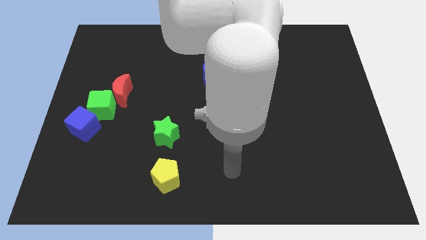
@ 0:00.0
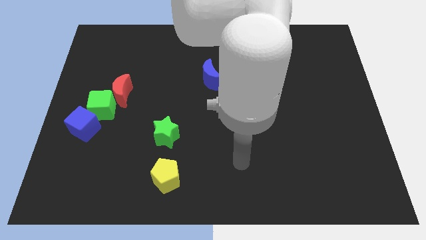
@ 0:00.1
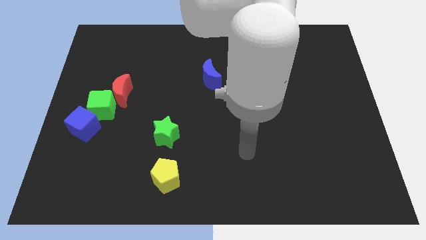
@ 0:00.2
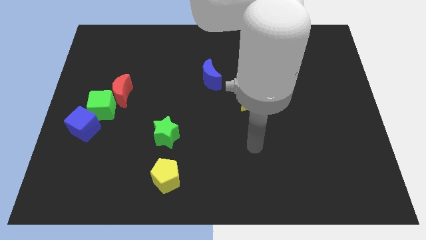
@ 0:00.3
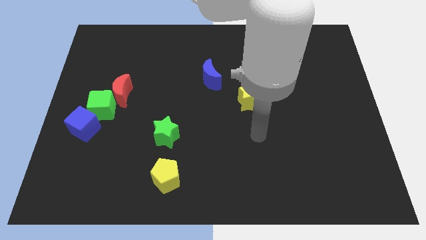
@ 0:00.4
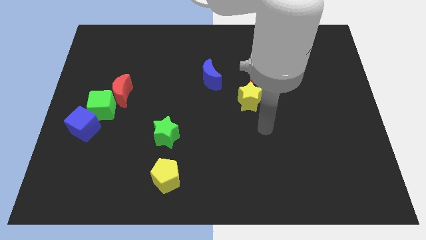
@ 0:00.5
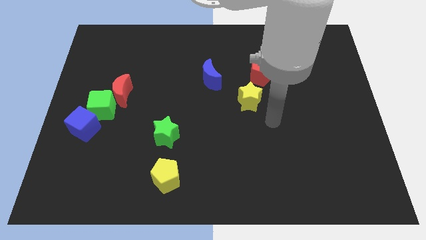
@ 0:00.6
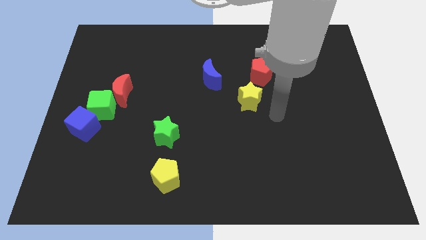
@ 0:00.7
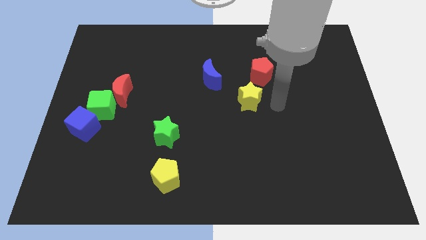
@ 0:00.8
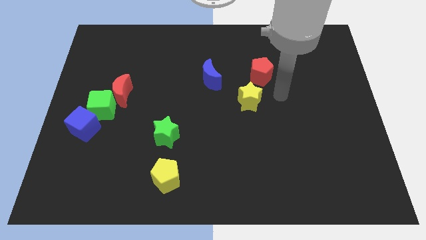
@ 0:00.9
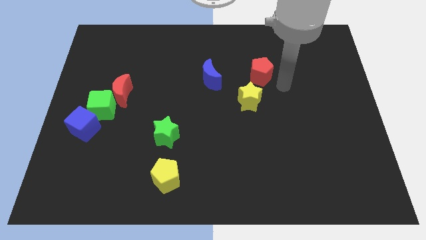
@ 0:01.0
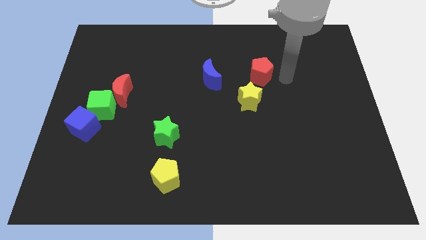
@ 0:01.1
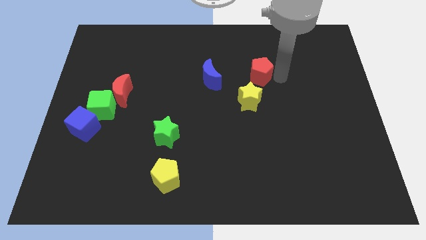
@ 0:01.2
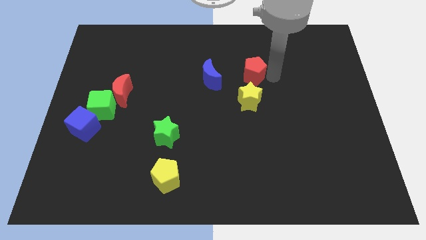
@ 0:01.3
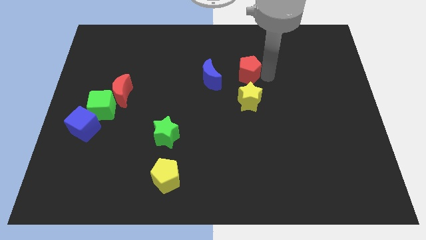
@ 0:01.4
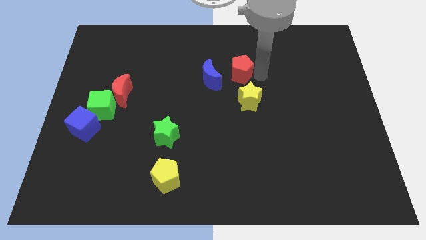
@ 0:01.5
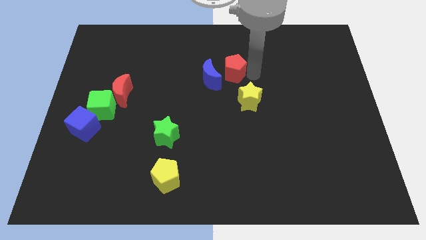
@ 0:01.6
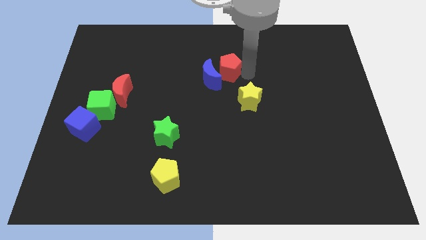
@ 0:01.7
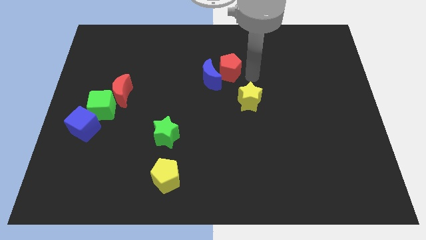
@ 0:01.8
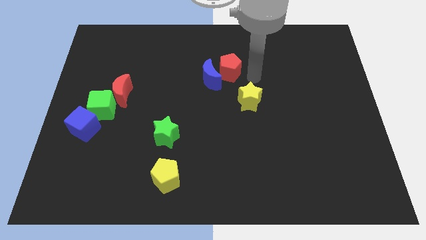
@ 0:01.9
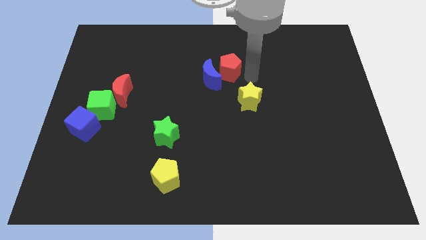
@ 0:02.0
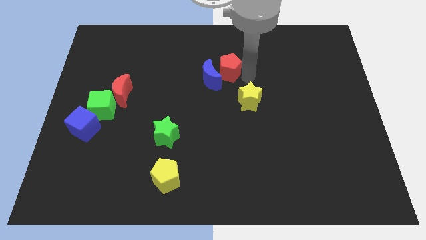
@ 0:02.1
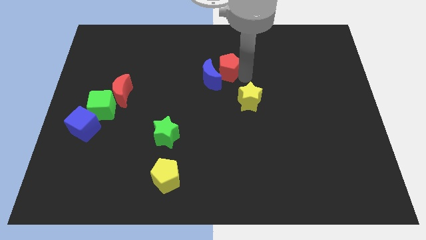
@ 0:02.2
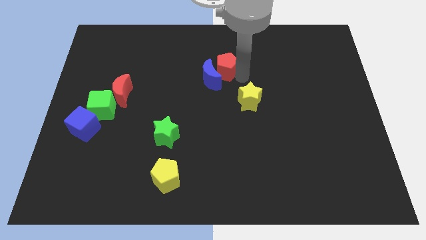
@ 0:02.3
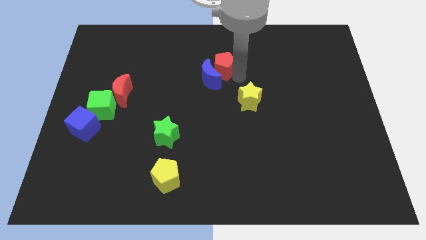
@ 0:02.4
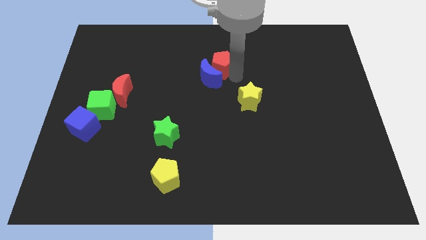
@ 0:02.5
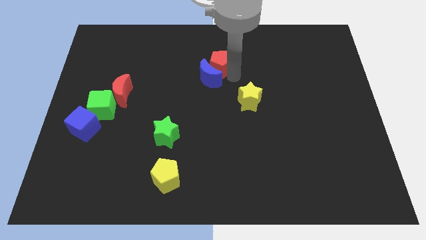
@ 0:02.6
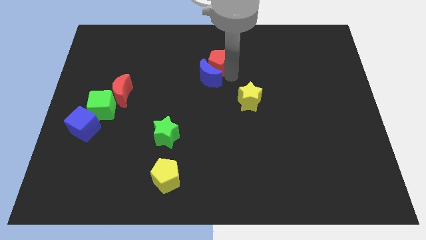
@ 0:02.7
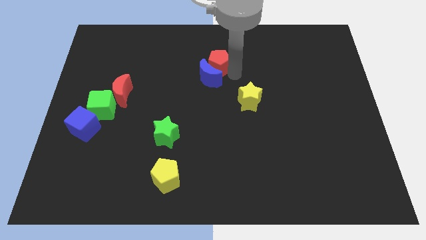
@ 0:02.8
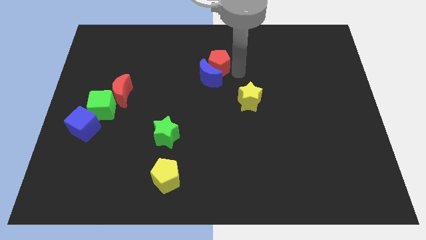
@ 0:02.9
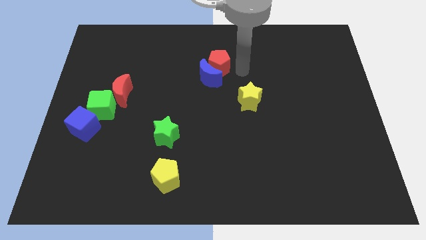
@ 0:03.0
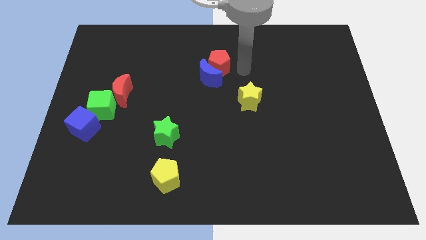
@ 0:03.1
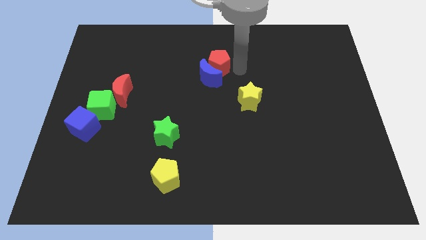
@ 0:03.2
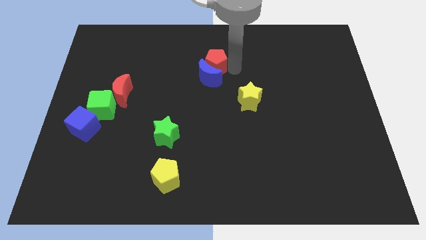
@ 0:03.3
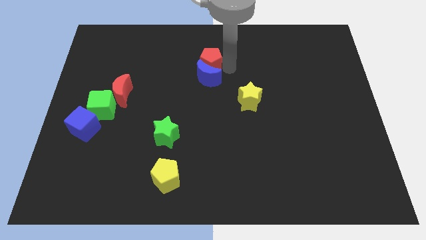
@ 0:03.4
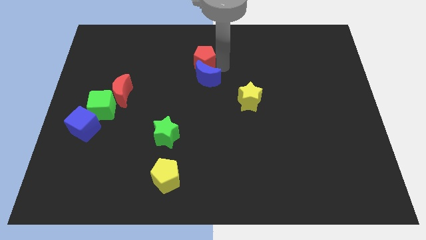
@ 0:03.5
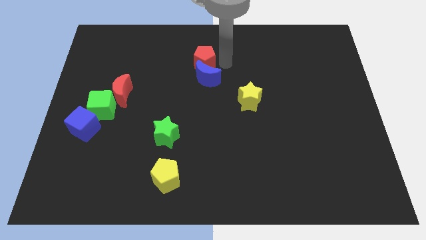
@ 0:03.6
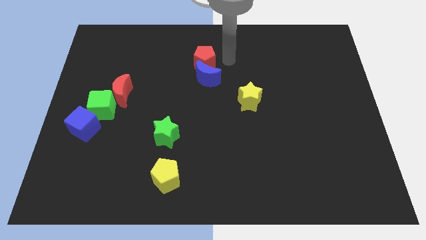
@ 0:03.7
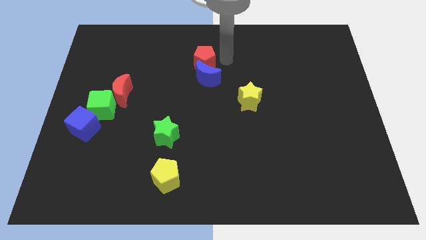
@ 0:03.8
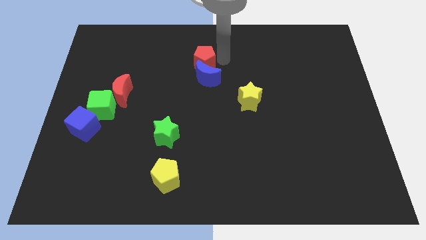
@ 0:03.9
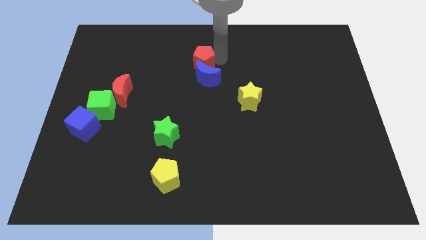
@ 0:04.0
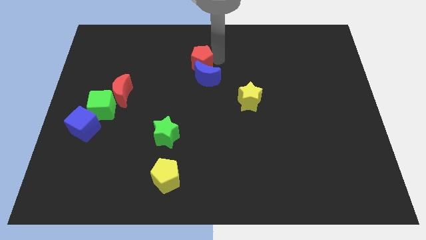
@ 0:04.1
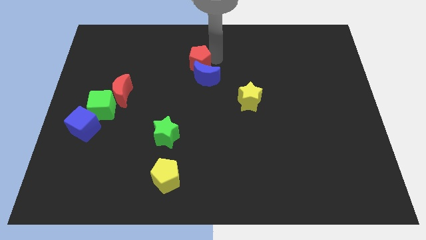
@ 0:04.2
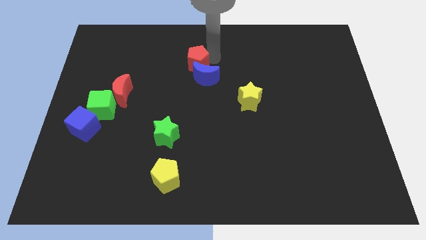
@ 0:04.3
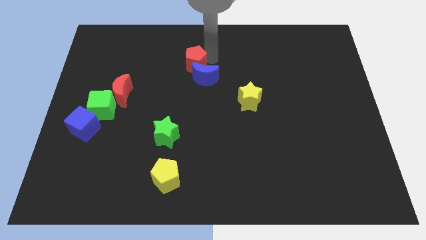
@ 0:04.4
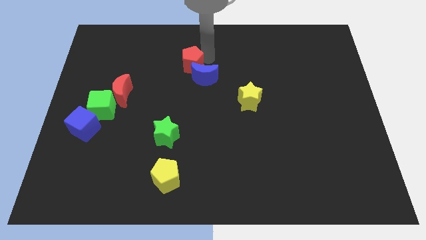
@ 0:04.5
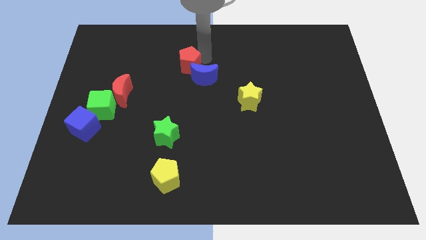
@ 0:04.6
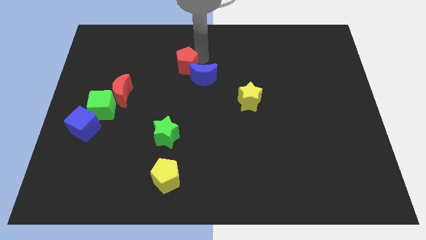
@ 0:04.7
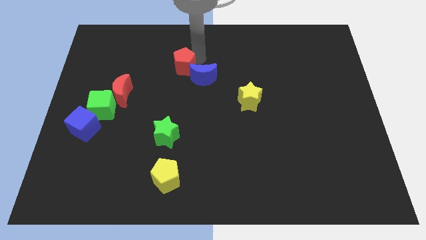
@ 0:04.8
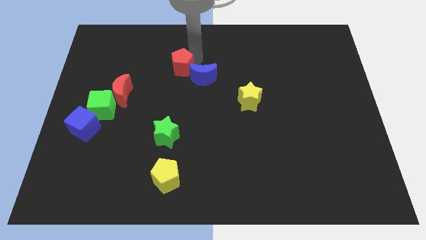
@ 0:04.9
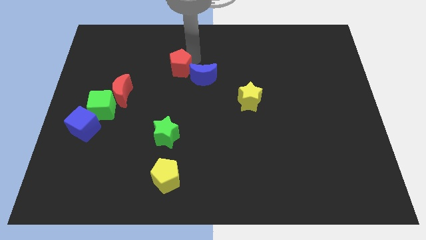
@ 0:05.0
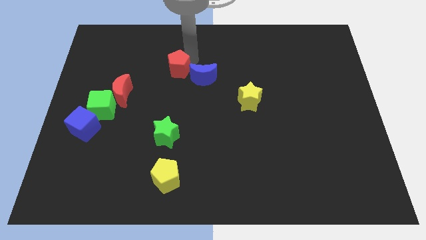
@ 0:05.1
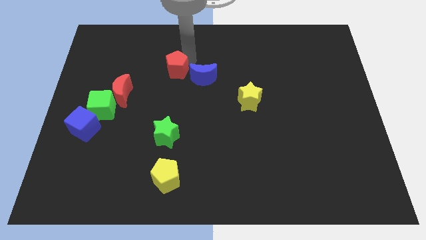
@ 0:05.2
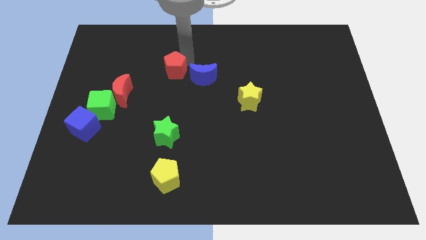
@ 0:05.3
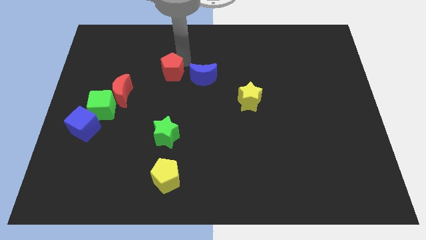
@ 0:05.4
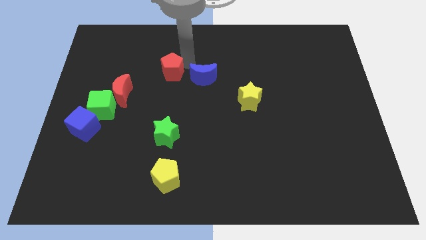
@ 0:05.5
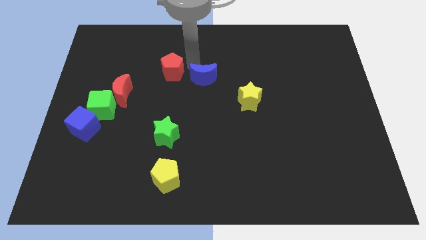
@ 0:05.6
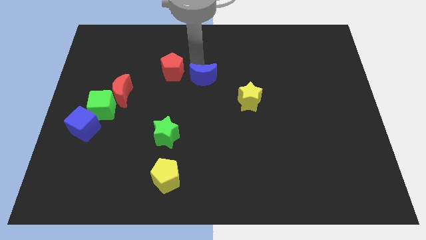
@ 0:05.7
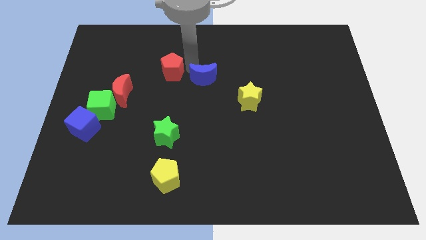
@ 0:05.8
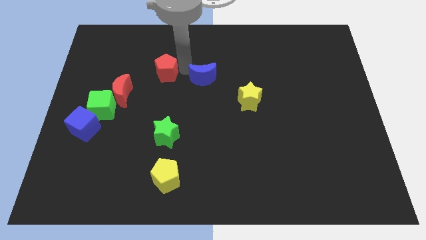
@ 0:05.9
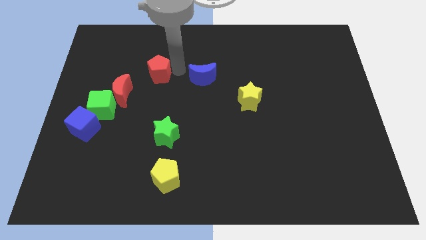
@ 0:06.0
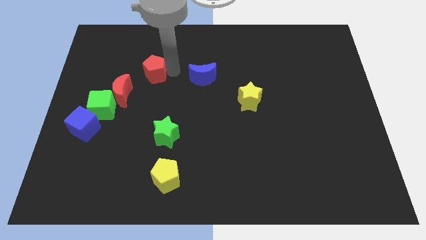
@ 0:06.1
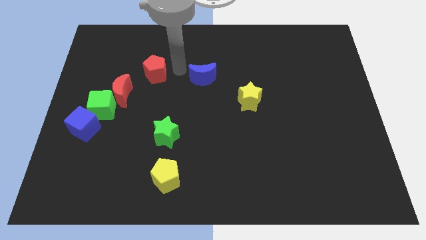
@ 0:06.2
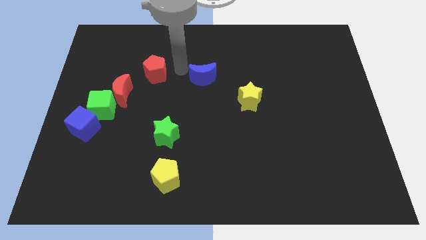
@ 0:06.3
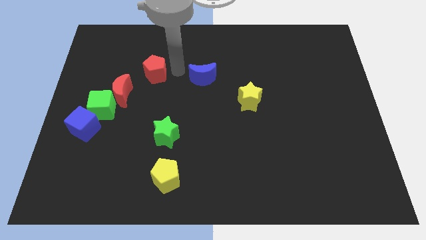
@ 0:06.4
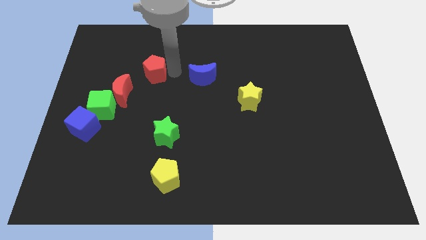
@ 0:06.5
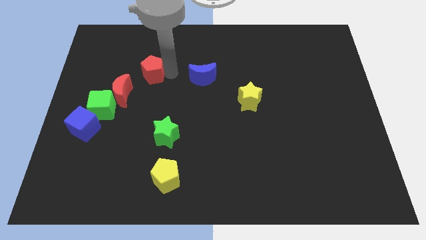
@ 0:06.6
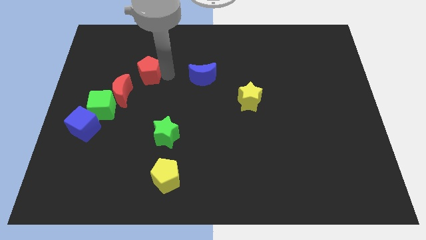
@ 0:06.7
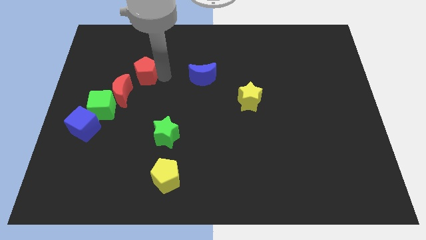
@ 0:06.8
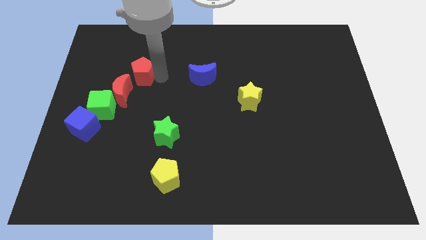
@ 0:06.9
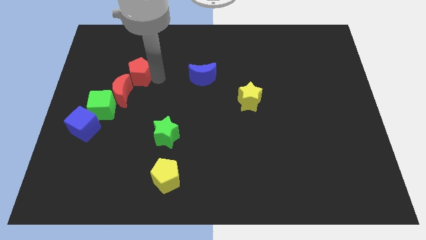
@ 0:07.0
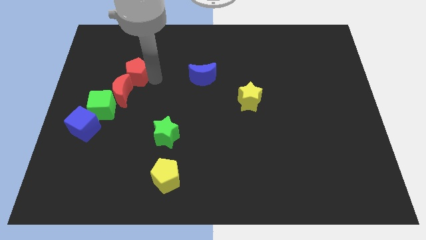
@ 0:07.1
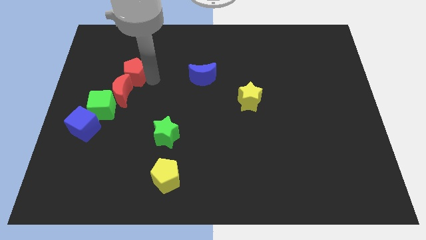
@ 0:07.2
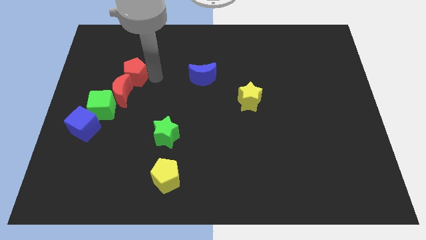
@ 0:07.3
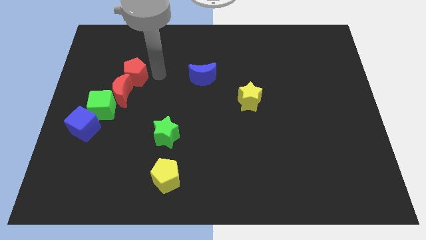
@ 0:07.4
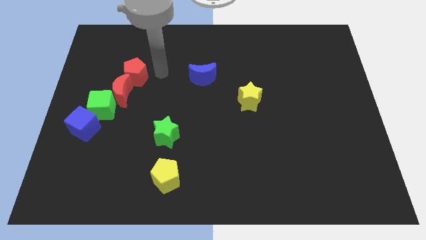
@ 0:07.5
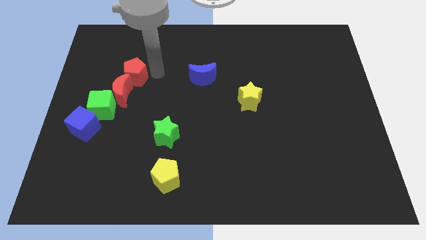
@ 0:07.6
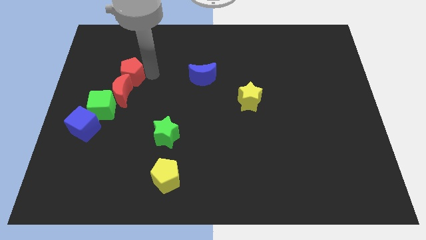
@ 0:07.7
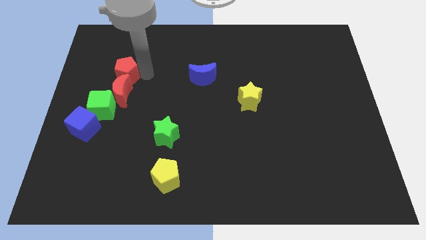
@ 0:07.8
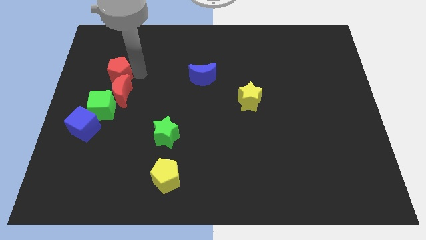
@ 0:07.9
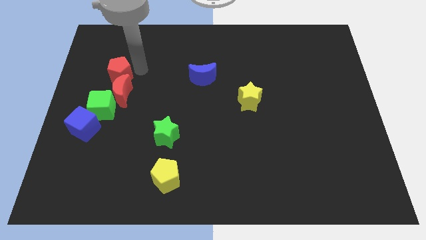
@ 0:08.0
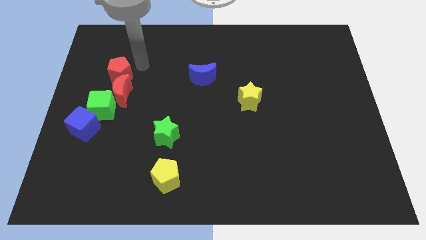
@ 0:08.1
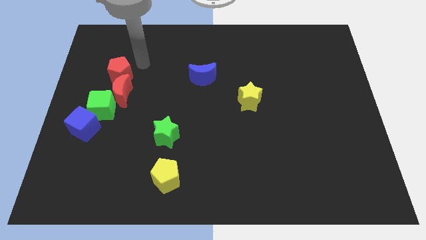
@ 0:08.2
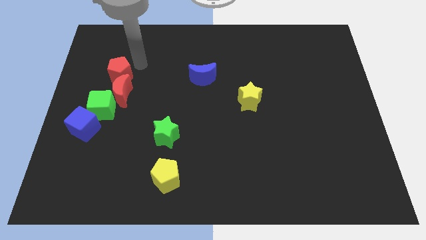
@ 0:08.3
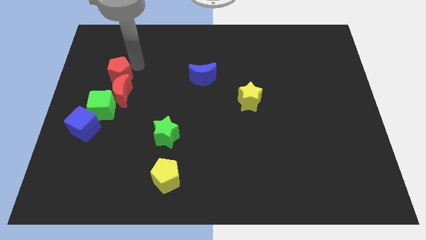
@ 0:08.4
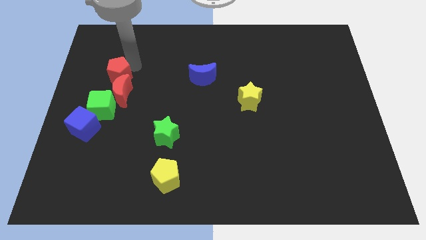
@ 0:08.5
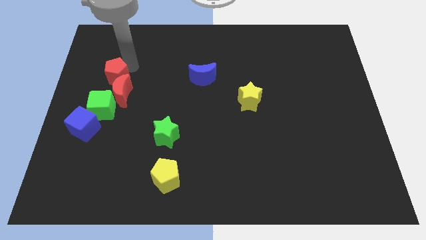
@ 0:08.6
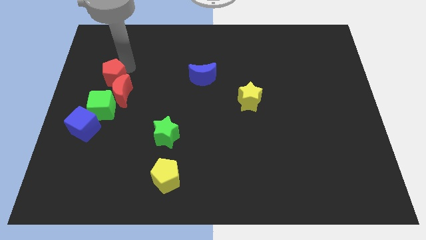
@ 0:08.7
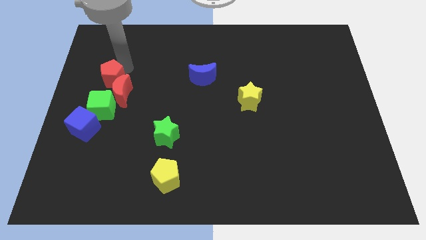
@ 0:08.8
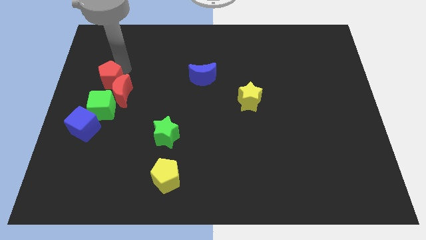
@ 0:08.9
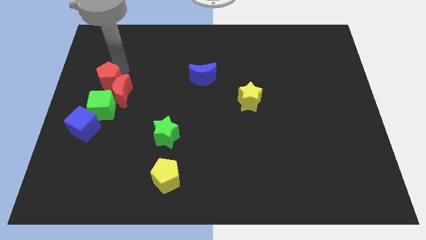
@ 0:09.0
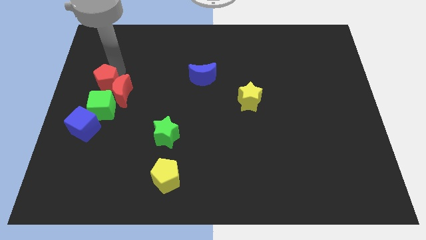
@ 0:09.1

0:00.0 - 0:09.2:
push the red pentagon to the left side of the board
